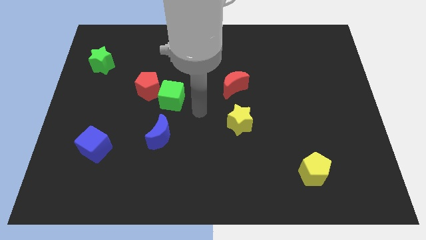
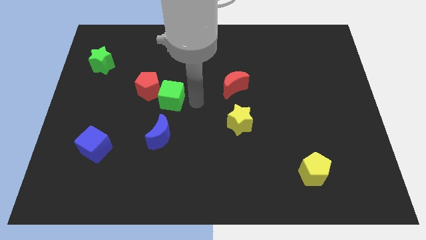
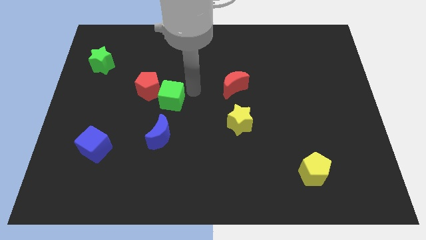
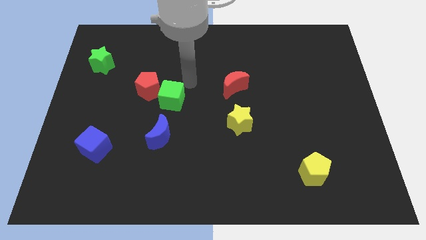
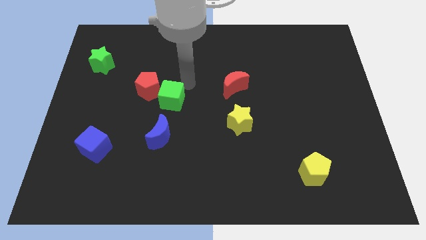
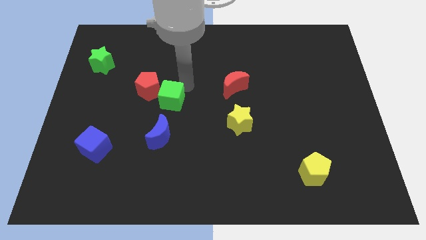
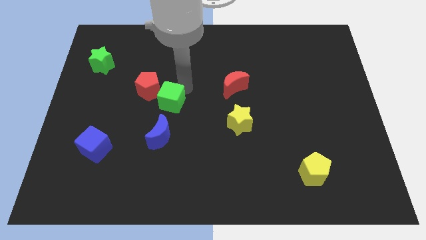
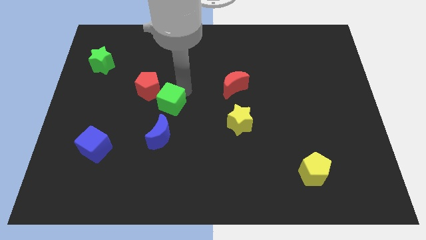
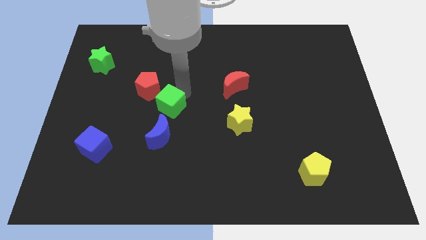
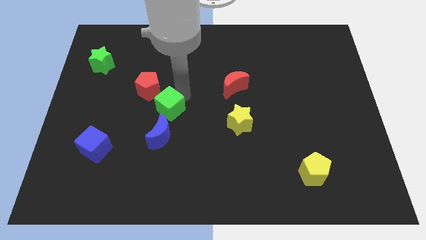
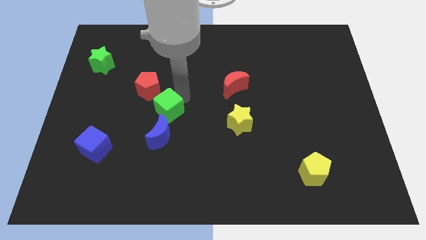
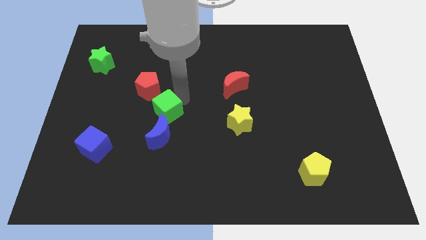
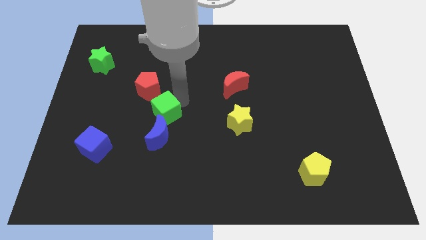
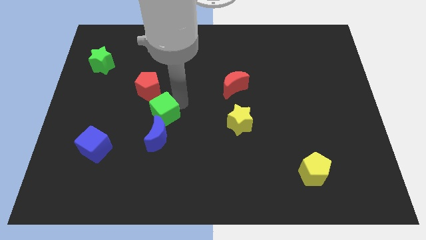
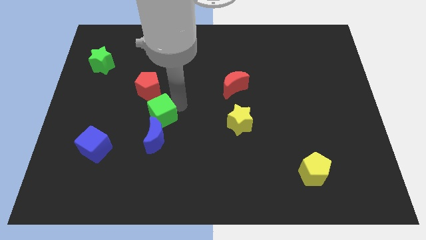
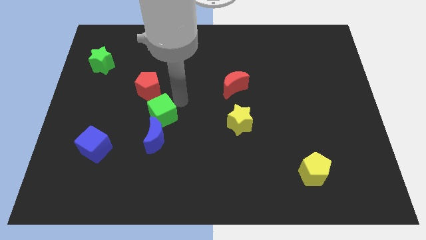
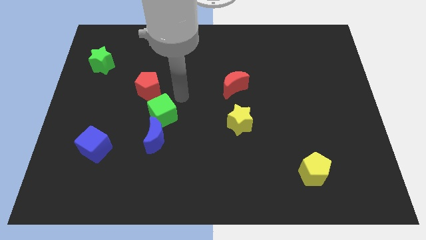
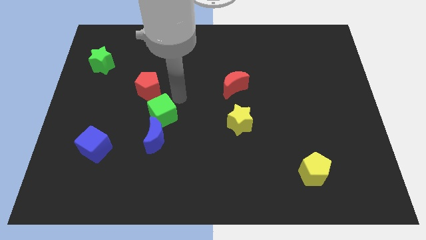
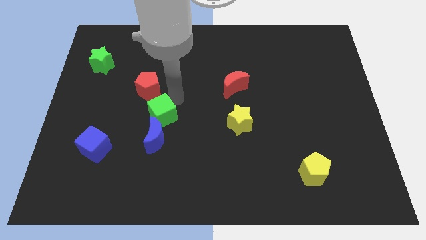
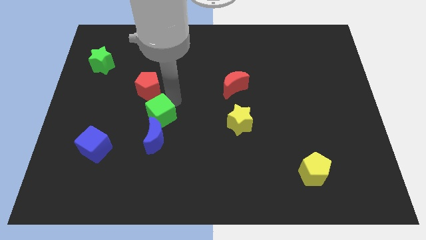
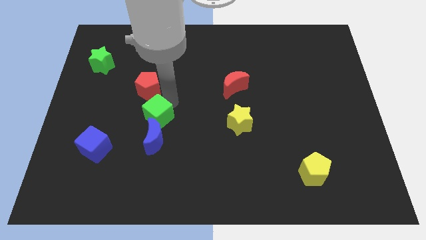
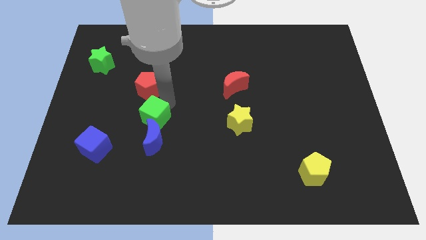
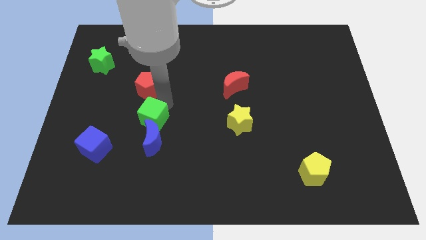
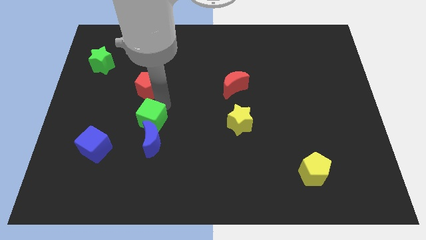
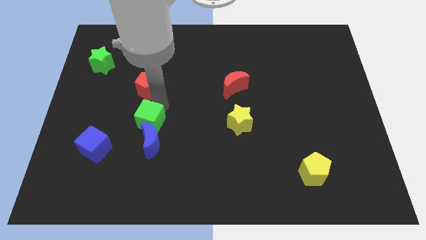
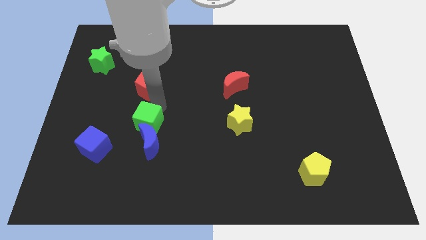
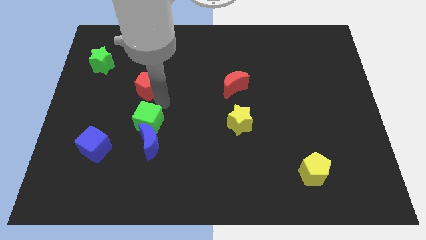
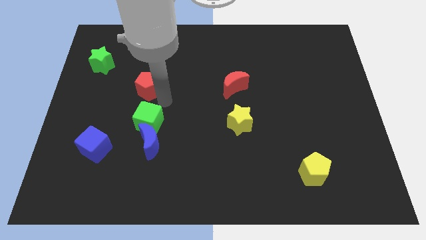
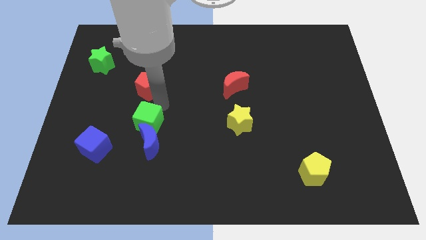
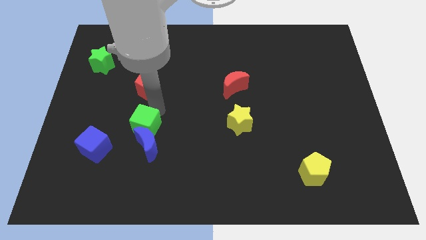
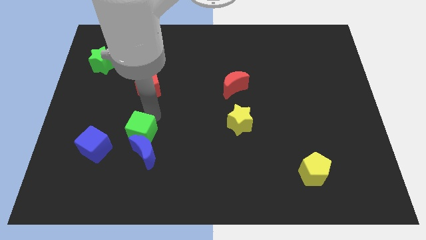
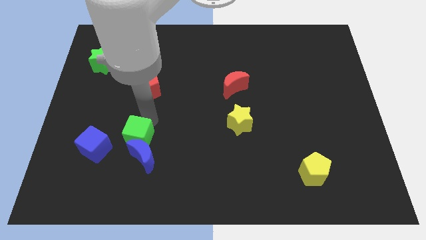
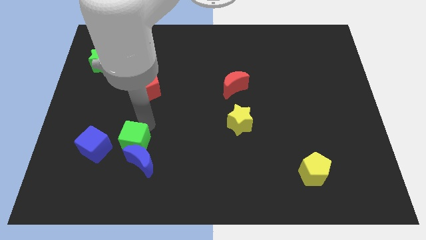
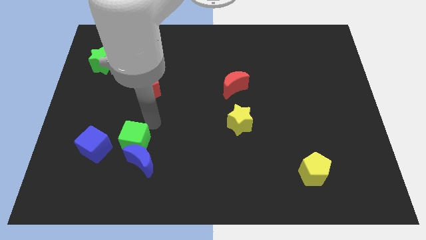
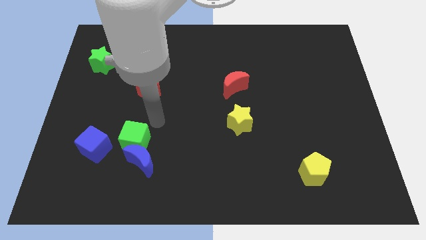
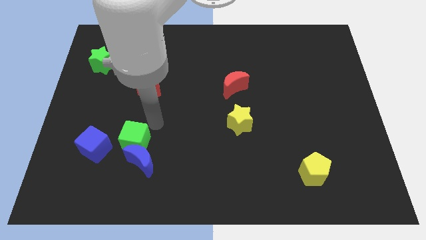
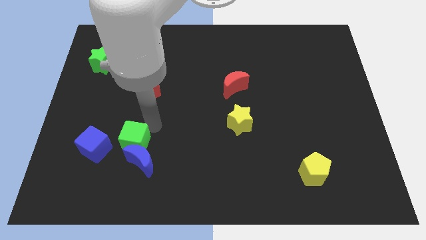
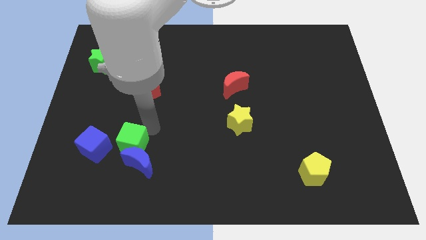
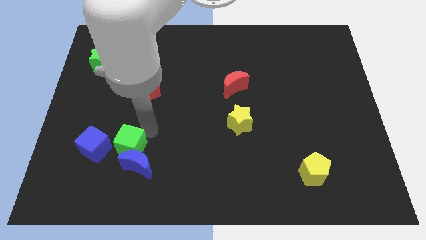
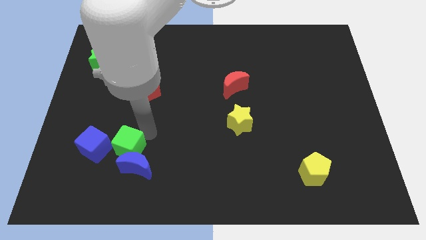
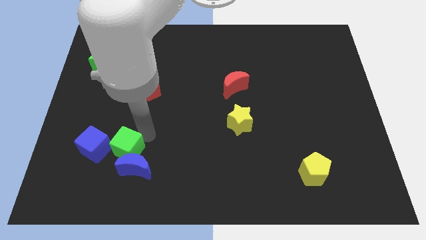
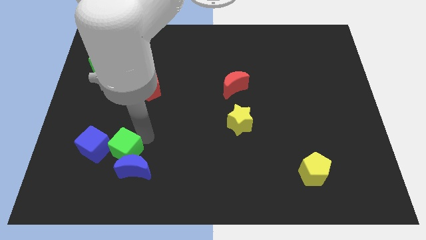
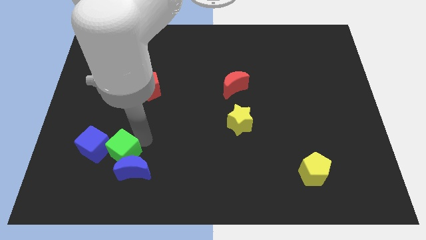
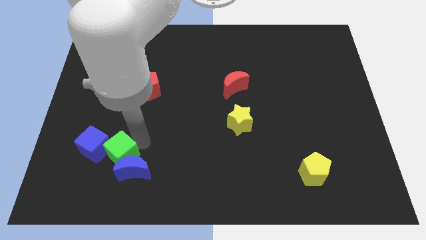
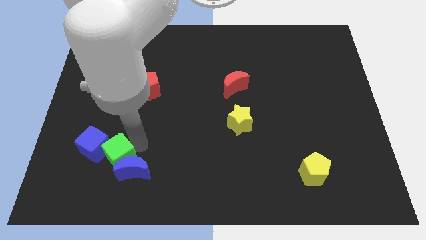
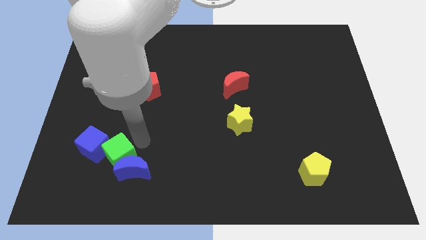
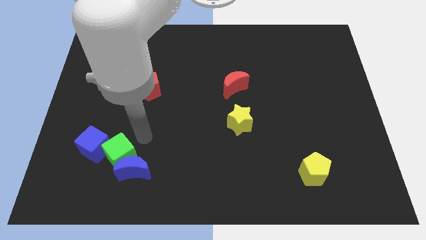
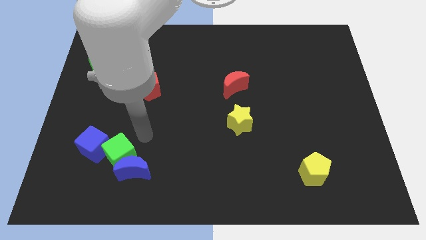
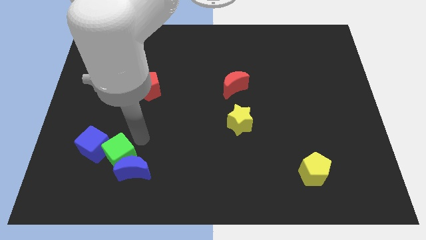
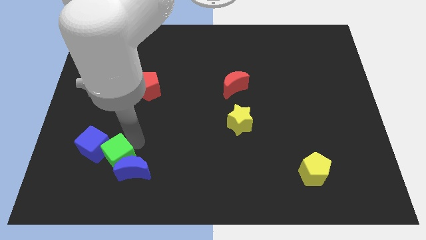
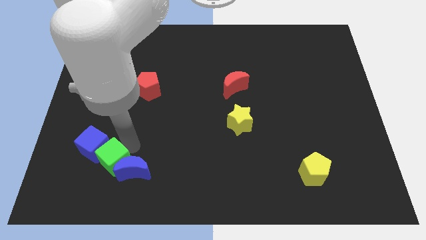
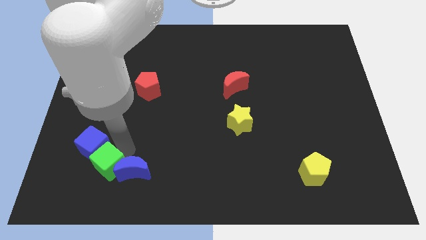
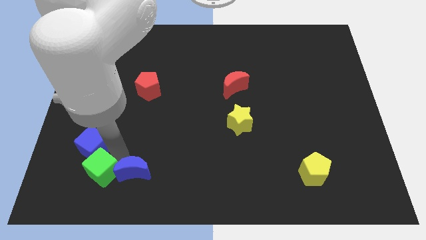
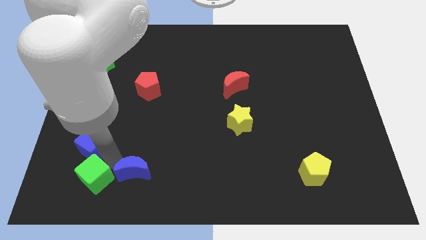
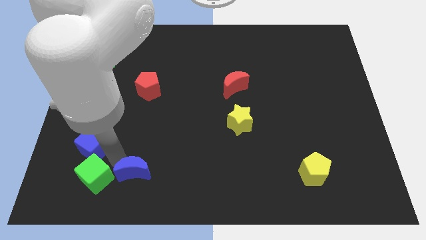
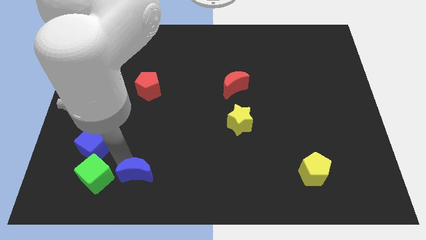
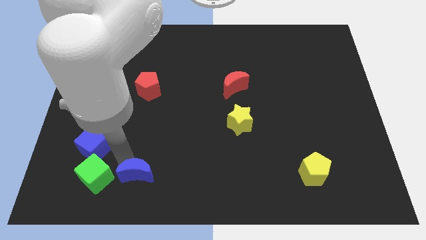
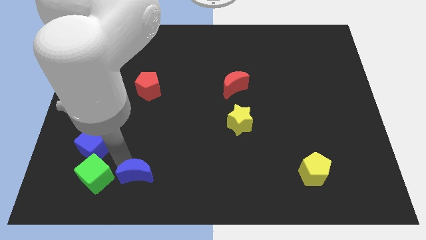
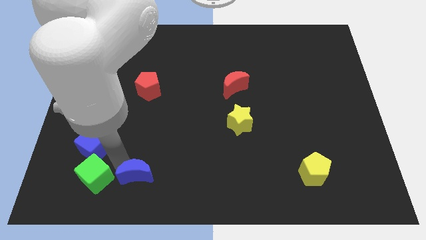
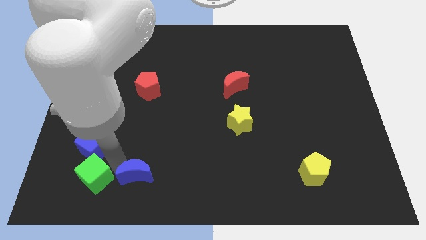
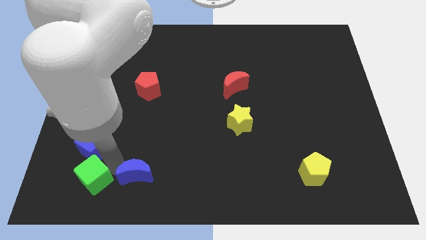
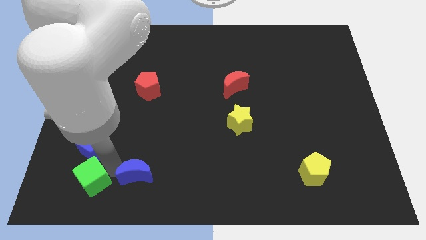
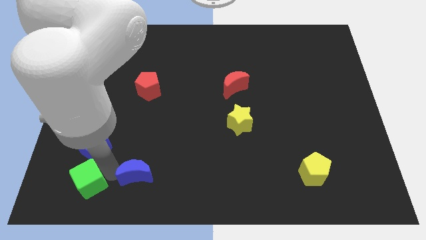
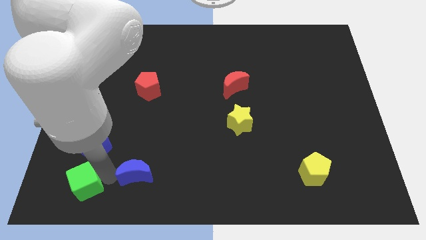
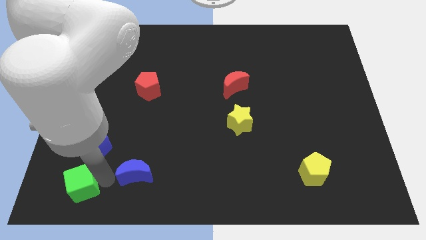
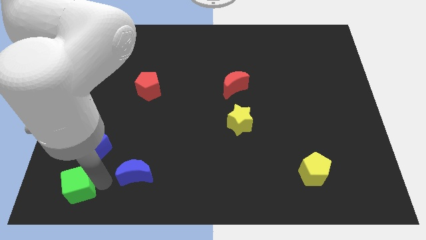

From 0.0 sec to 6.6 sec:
push the green cube to the bottom left of the board
